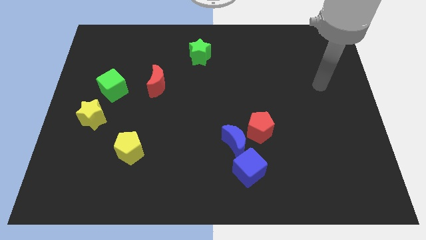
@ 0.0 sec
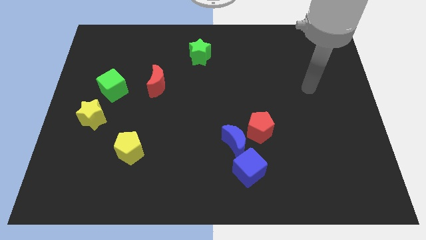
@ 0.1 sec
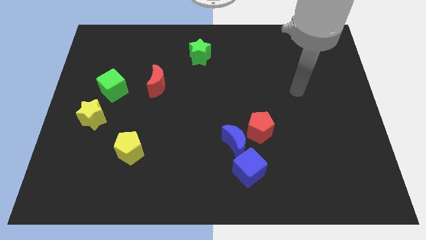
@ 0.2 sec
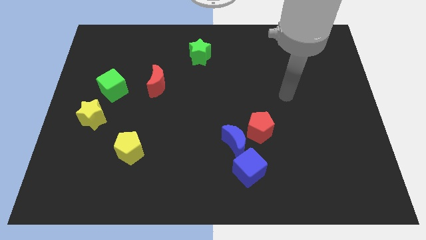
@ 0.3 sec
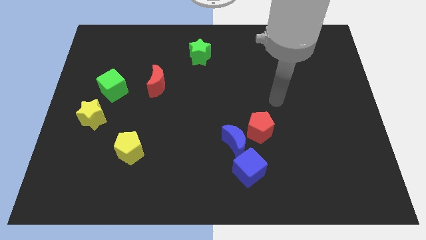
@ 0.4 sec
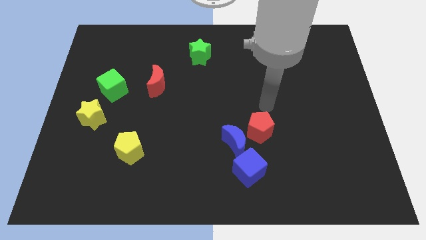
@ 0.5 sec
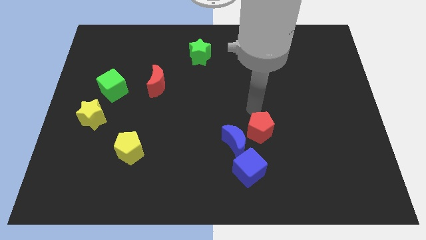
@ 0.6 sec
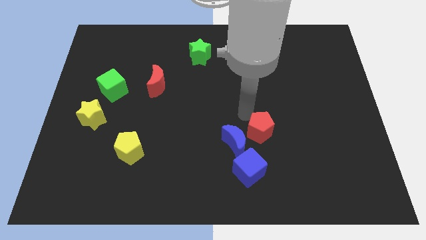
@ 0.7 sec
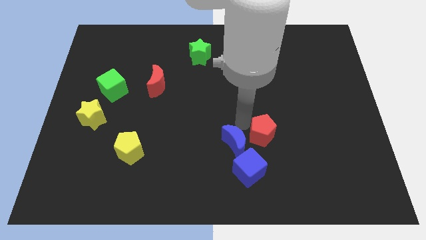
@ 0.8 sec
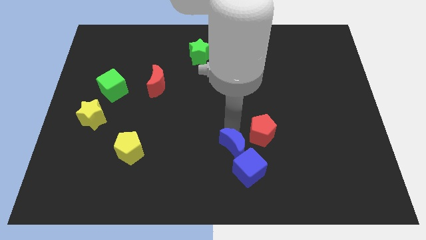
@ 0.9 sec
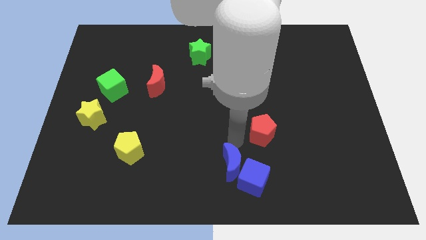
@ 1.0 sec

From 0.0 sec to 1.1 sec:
pull the red pentagon apart from the blue moon

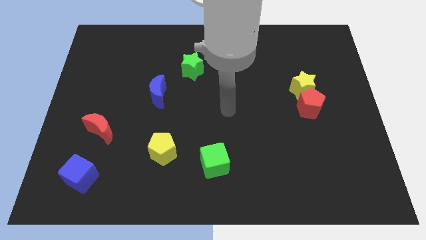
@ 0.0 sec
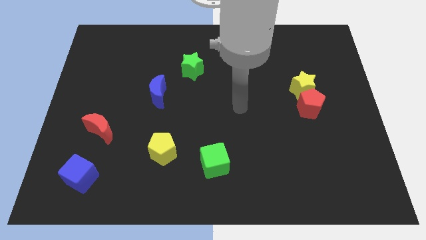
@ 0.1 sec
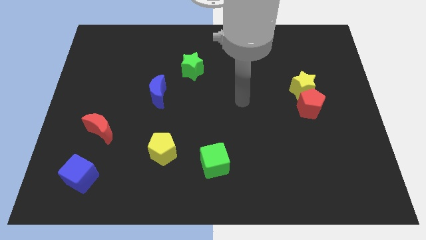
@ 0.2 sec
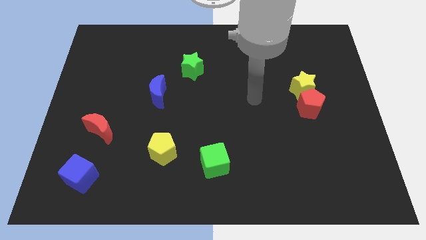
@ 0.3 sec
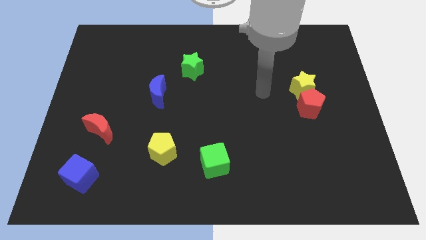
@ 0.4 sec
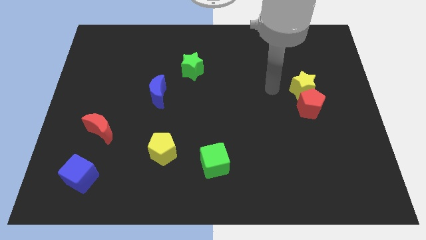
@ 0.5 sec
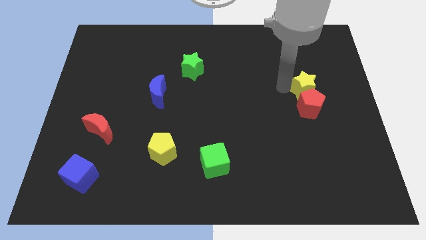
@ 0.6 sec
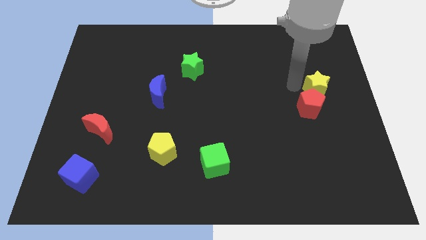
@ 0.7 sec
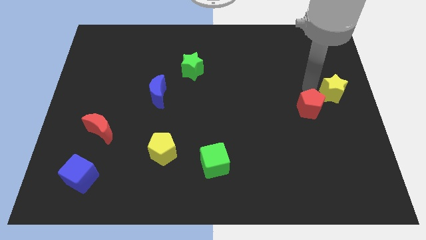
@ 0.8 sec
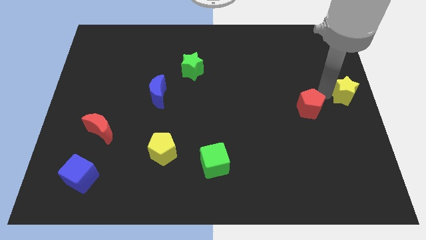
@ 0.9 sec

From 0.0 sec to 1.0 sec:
move the red pentagon away from the yellow star

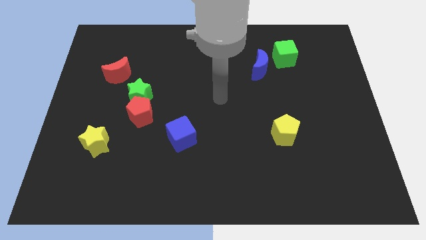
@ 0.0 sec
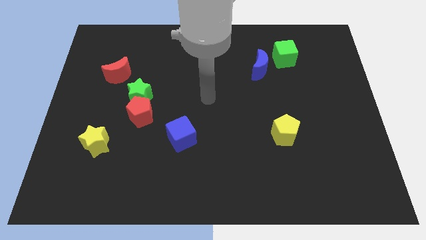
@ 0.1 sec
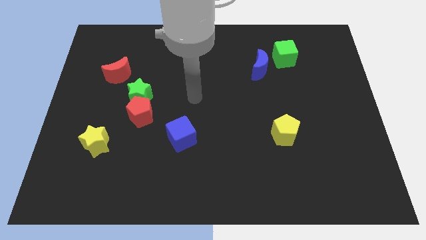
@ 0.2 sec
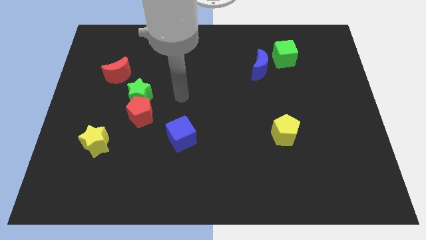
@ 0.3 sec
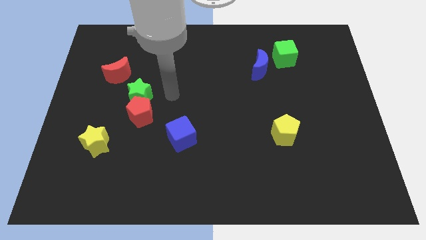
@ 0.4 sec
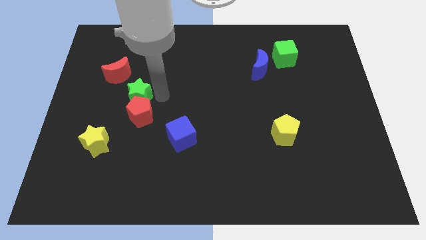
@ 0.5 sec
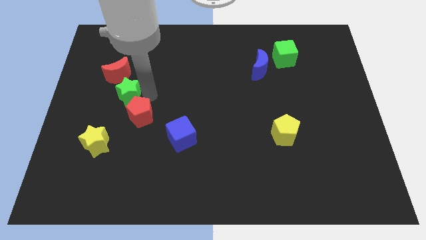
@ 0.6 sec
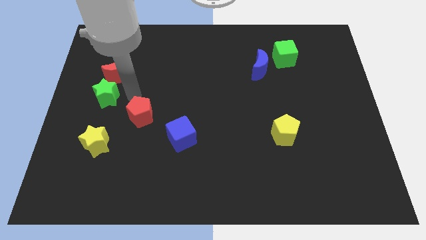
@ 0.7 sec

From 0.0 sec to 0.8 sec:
move the red pentagon away from the green star

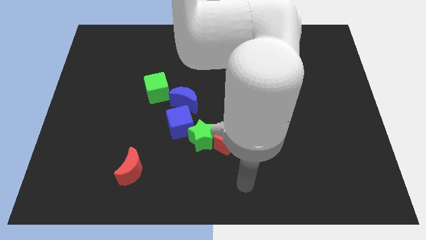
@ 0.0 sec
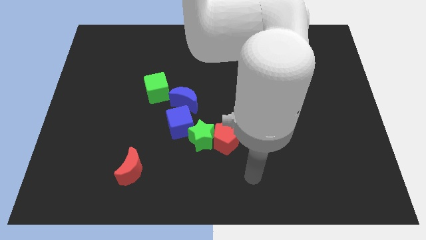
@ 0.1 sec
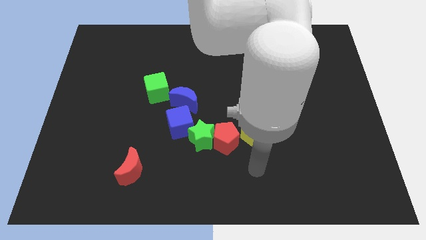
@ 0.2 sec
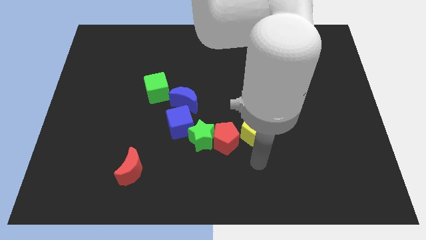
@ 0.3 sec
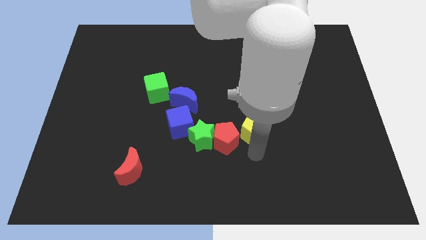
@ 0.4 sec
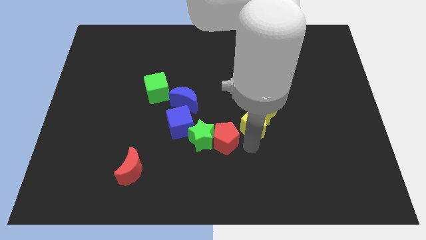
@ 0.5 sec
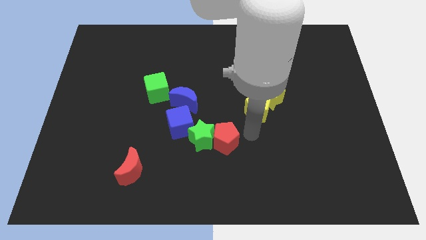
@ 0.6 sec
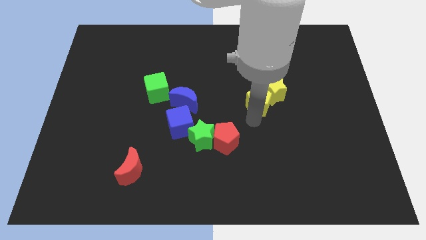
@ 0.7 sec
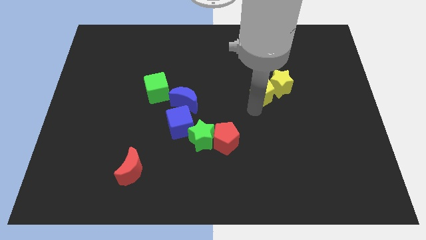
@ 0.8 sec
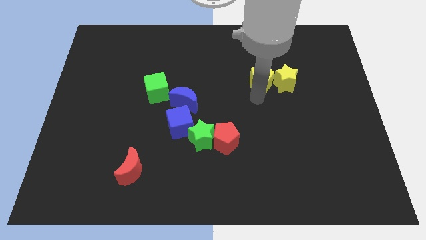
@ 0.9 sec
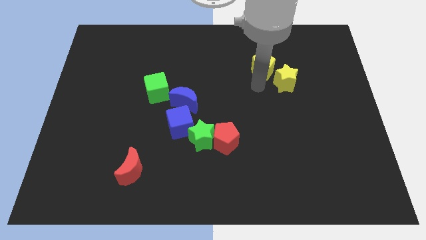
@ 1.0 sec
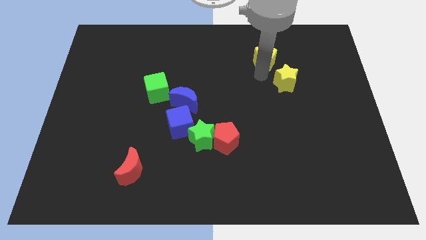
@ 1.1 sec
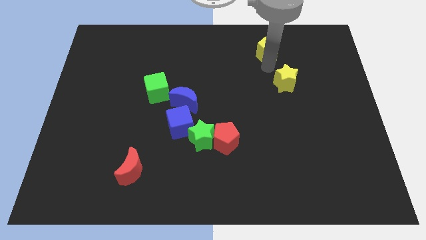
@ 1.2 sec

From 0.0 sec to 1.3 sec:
pull the yellow star apart from the yellow pentagon

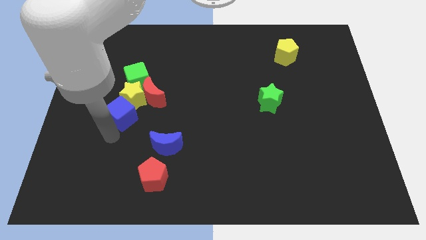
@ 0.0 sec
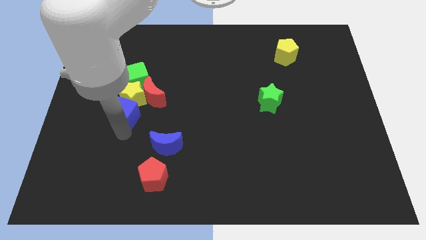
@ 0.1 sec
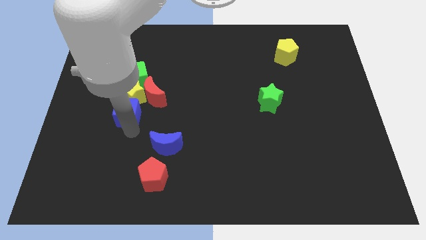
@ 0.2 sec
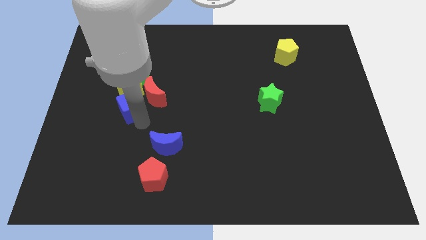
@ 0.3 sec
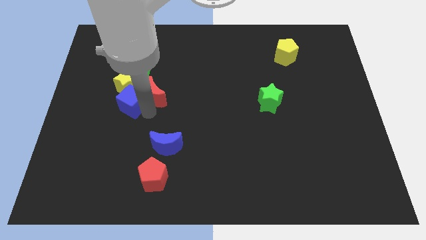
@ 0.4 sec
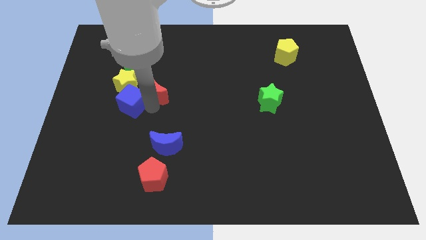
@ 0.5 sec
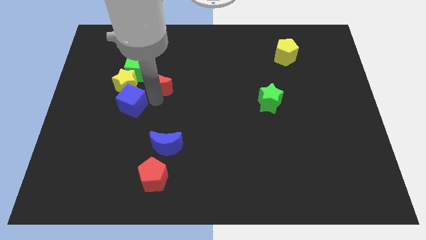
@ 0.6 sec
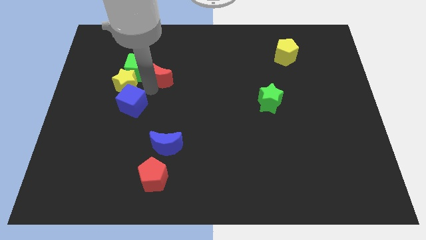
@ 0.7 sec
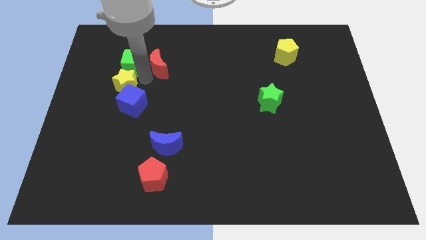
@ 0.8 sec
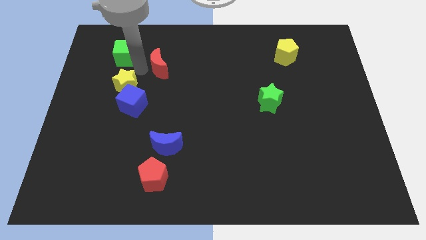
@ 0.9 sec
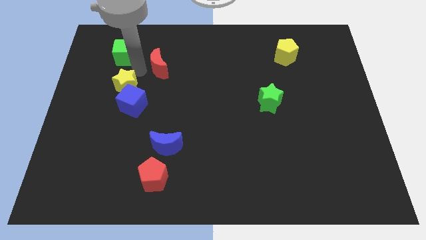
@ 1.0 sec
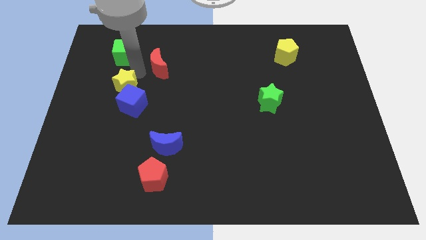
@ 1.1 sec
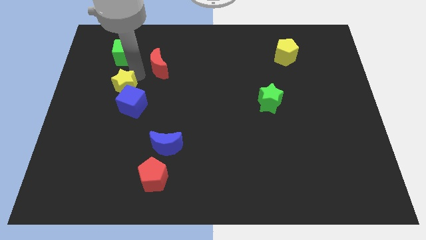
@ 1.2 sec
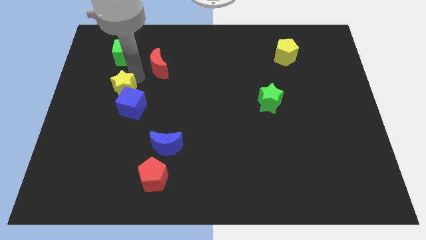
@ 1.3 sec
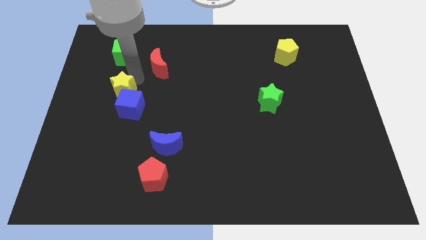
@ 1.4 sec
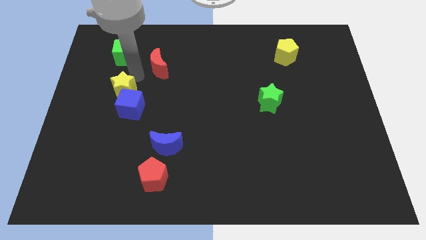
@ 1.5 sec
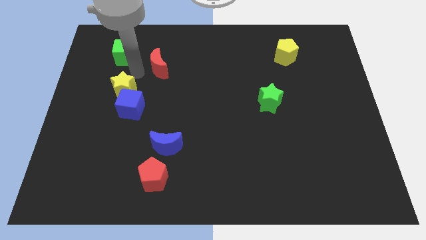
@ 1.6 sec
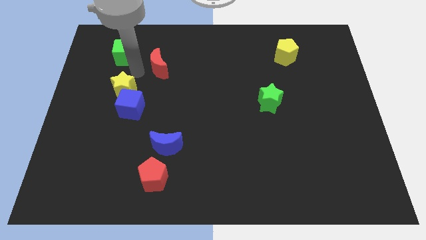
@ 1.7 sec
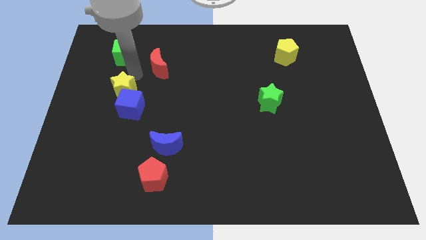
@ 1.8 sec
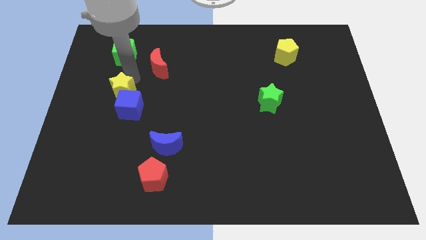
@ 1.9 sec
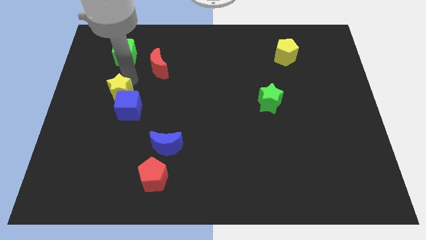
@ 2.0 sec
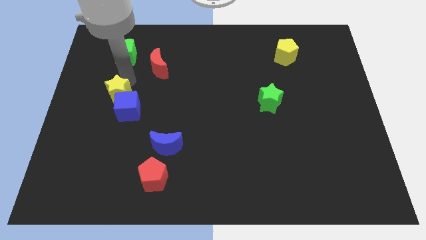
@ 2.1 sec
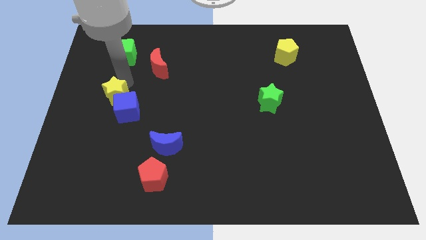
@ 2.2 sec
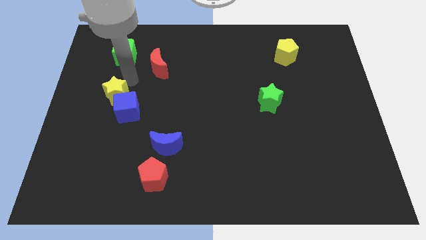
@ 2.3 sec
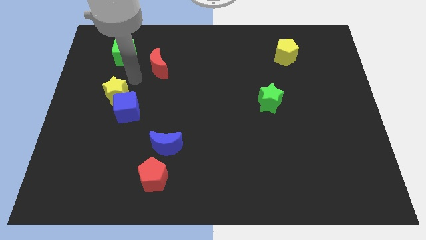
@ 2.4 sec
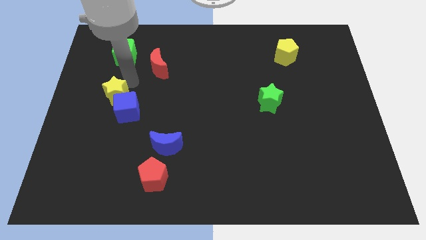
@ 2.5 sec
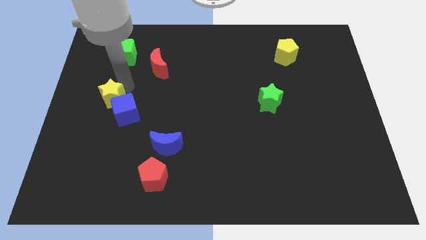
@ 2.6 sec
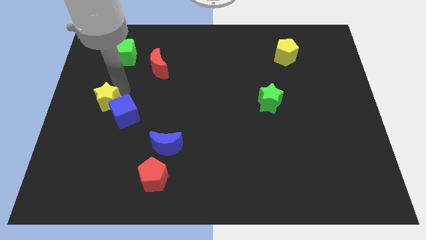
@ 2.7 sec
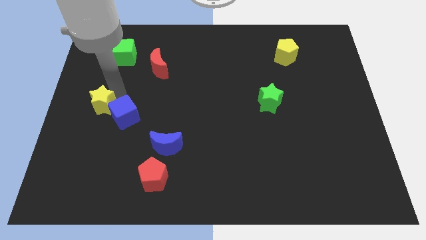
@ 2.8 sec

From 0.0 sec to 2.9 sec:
separate the yellow star from the clump

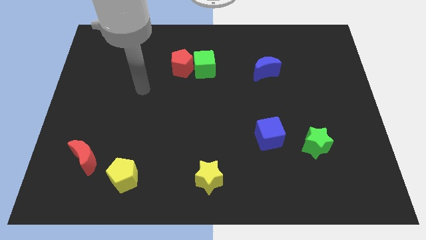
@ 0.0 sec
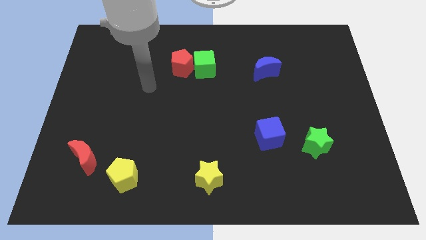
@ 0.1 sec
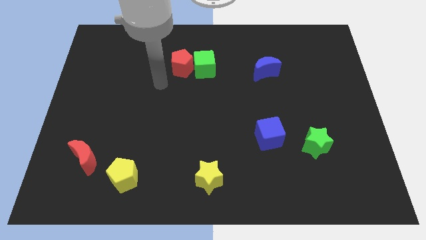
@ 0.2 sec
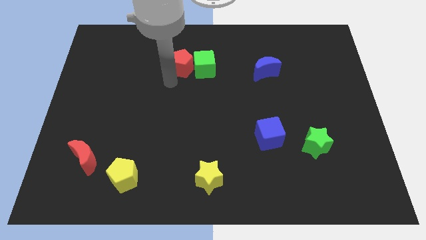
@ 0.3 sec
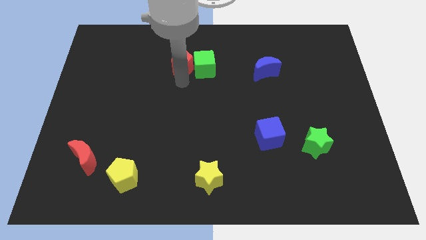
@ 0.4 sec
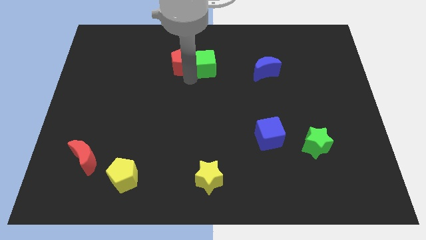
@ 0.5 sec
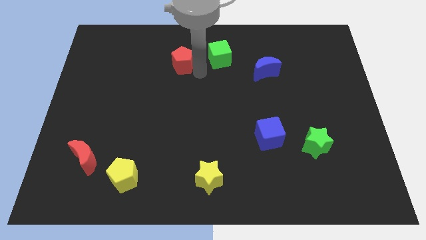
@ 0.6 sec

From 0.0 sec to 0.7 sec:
pull the red pentagon apart from the green cube

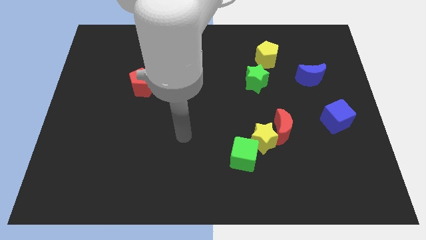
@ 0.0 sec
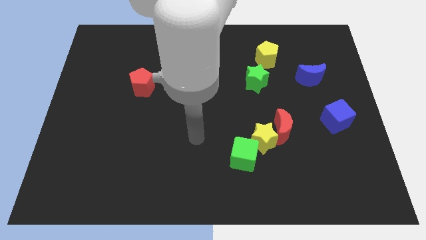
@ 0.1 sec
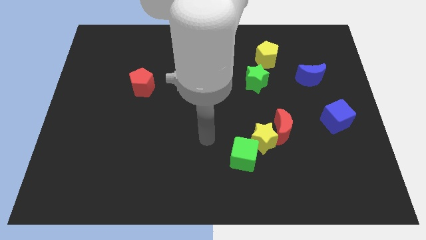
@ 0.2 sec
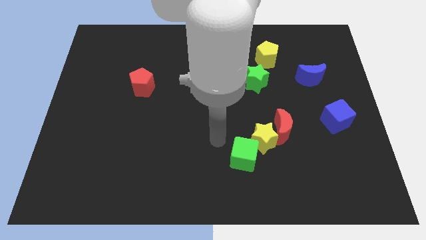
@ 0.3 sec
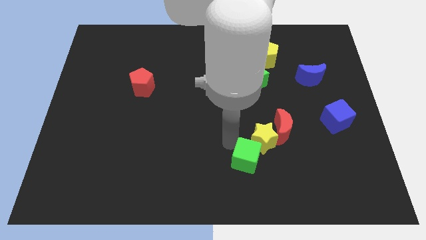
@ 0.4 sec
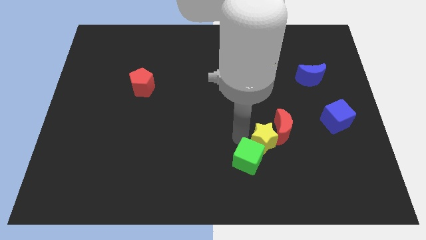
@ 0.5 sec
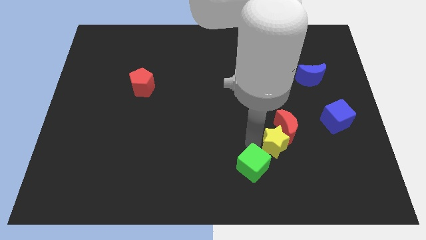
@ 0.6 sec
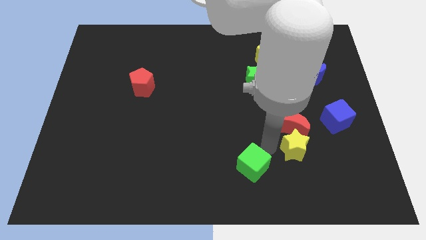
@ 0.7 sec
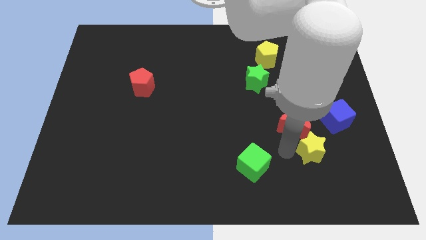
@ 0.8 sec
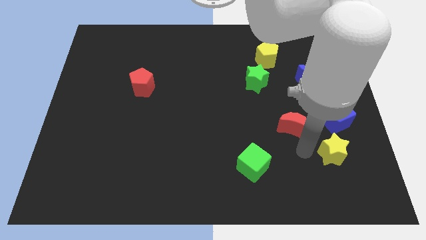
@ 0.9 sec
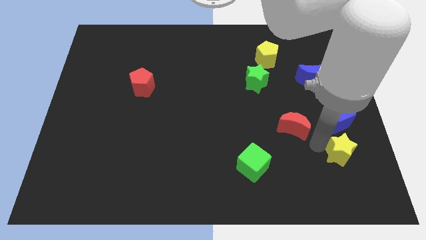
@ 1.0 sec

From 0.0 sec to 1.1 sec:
separate the red moon from the yellow star

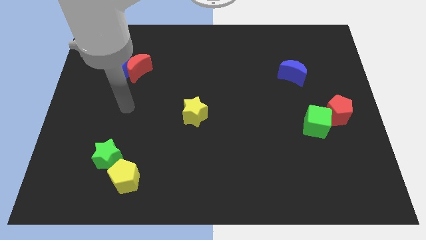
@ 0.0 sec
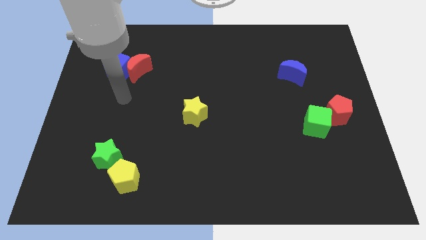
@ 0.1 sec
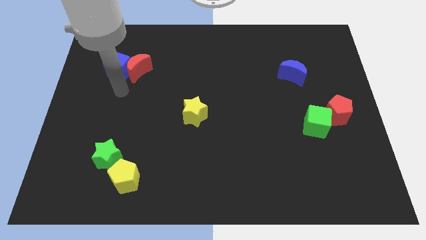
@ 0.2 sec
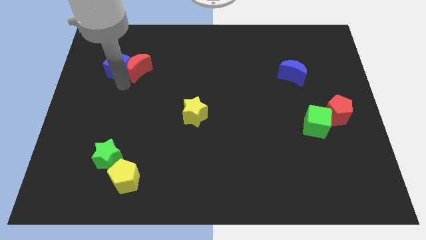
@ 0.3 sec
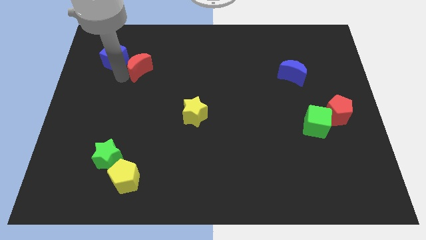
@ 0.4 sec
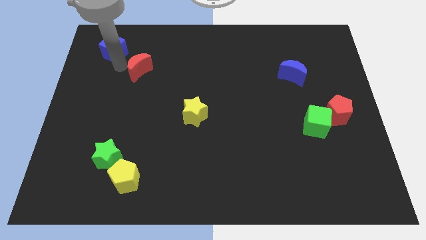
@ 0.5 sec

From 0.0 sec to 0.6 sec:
separate the red moon from the blue cube
